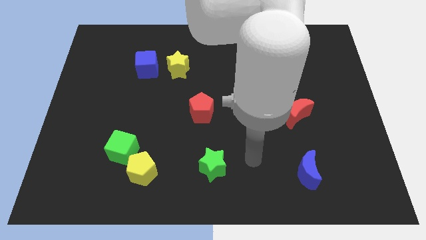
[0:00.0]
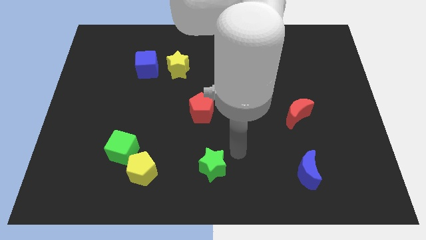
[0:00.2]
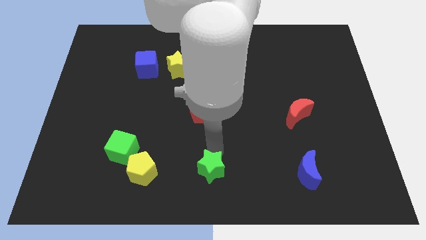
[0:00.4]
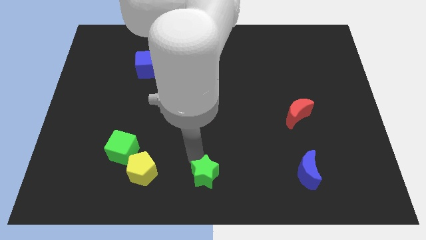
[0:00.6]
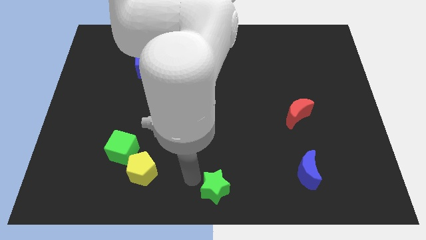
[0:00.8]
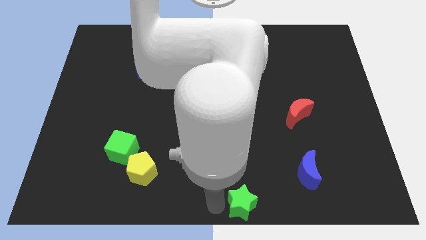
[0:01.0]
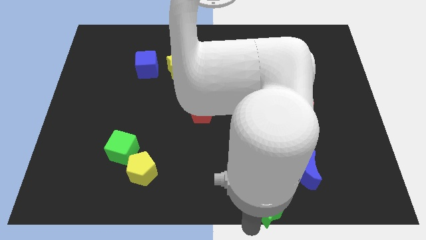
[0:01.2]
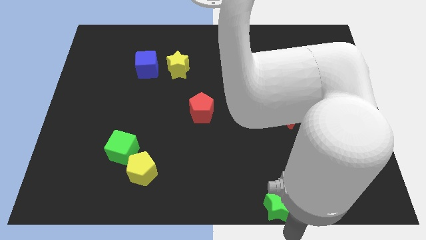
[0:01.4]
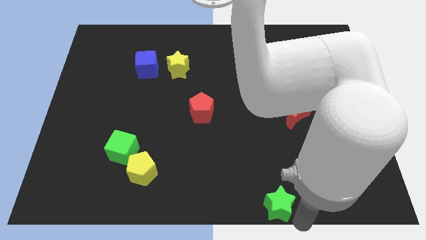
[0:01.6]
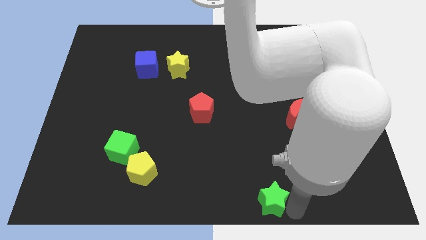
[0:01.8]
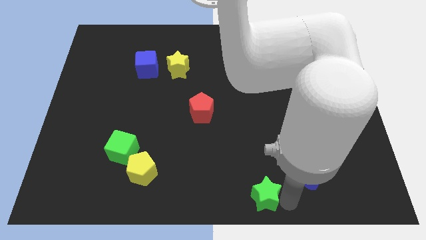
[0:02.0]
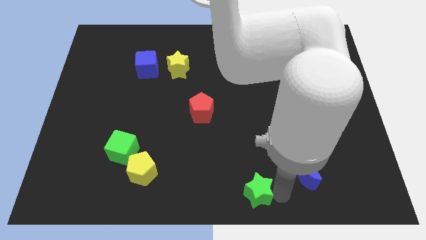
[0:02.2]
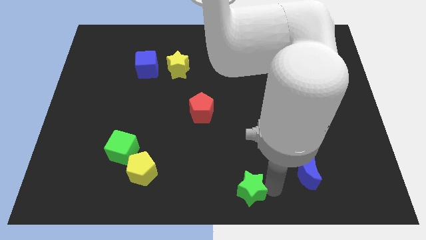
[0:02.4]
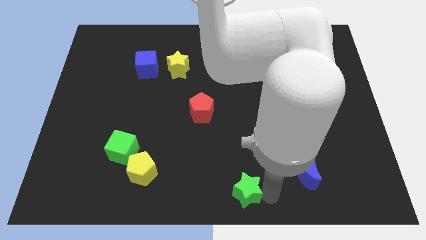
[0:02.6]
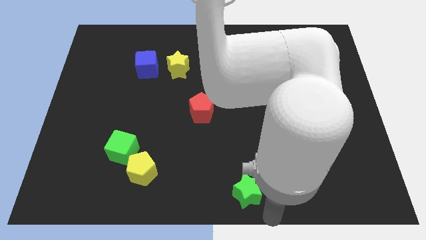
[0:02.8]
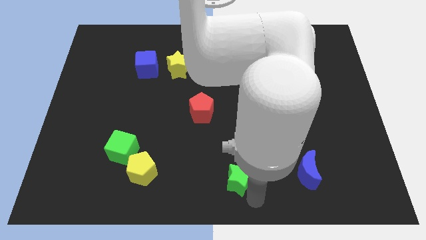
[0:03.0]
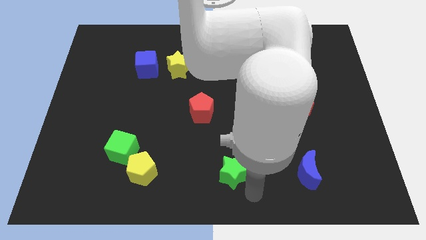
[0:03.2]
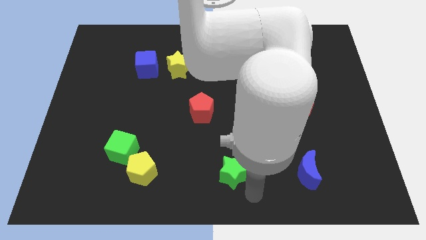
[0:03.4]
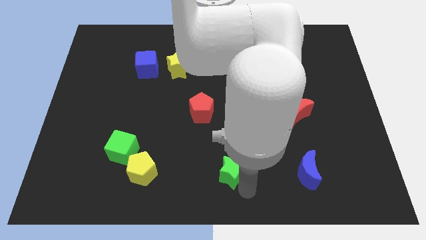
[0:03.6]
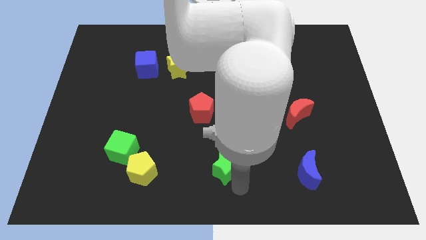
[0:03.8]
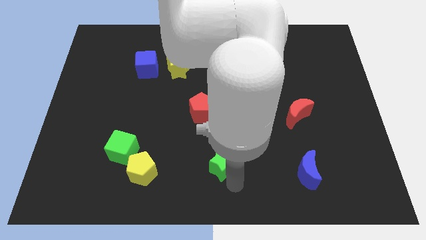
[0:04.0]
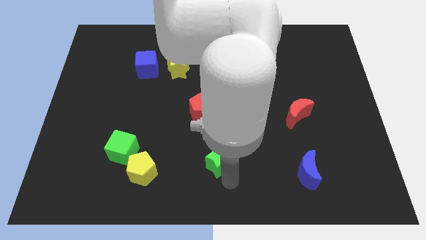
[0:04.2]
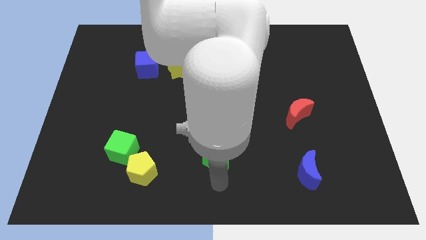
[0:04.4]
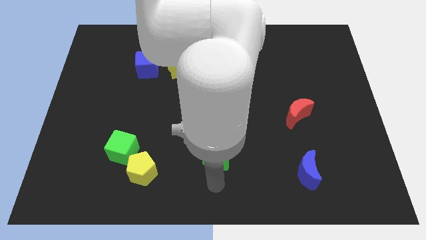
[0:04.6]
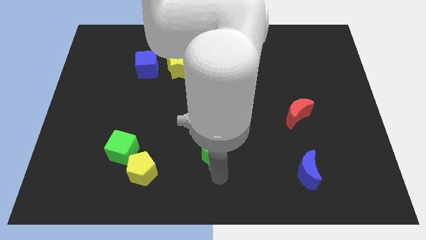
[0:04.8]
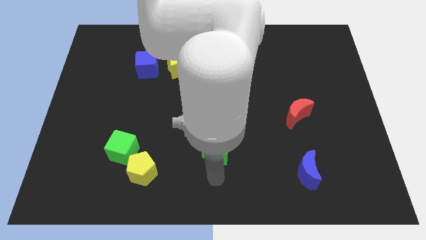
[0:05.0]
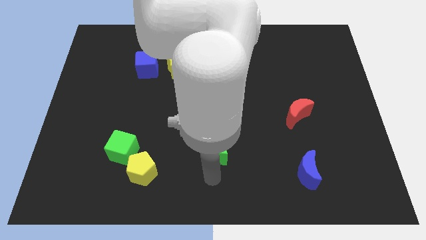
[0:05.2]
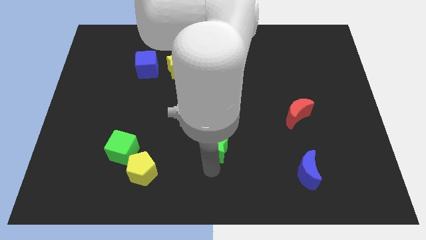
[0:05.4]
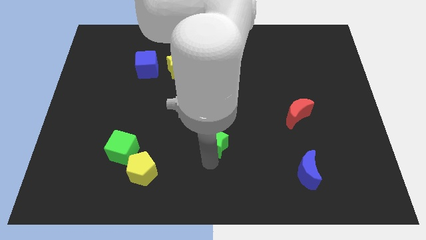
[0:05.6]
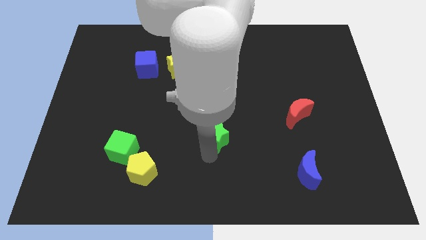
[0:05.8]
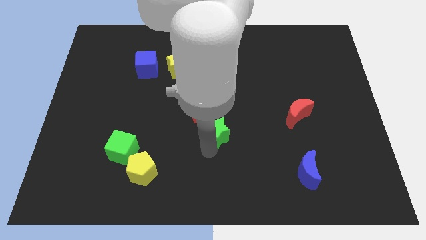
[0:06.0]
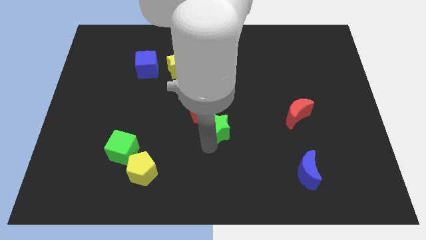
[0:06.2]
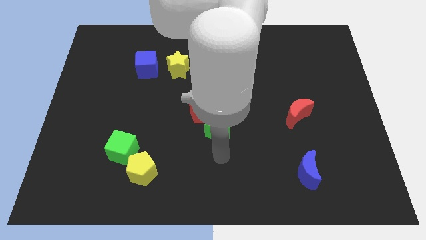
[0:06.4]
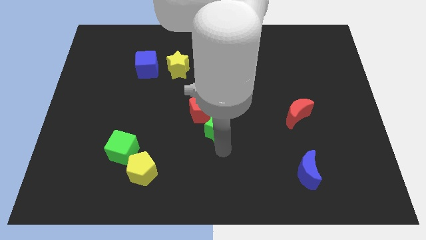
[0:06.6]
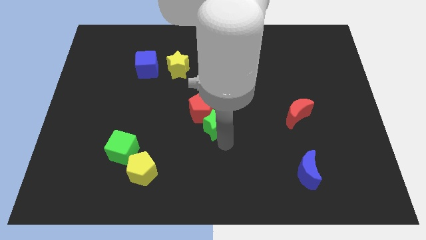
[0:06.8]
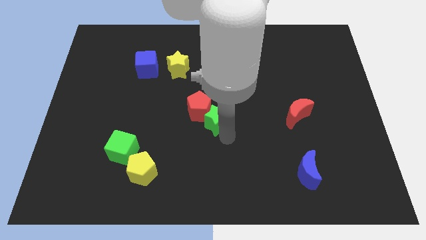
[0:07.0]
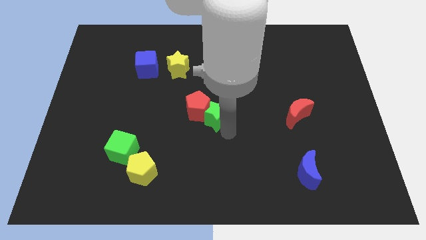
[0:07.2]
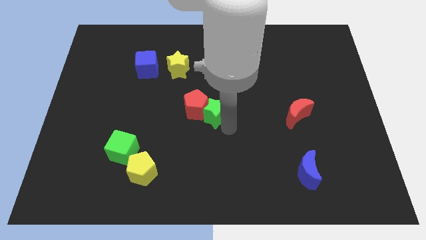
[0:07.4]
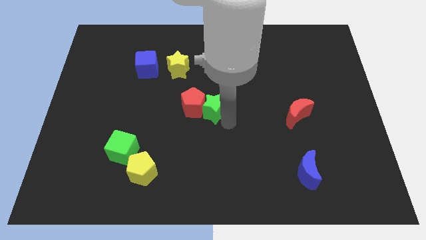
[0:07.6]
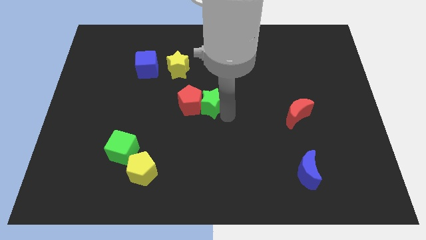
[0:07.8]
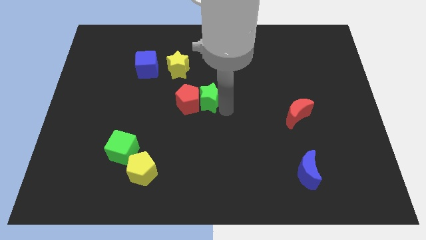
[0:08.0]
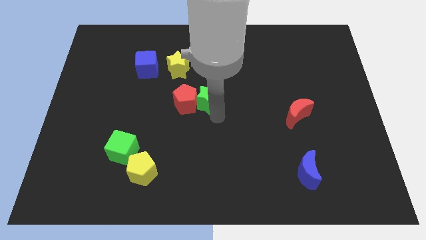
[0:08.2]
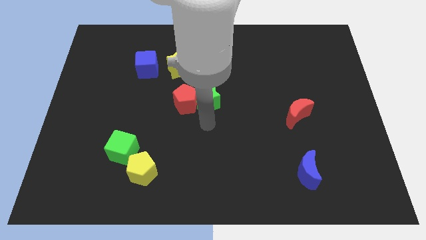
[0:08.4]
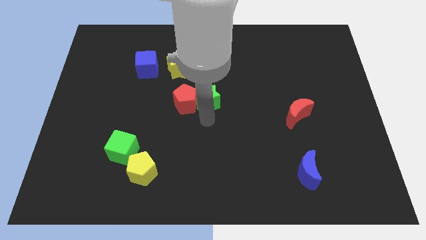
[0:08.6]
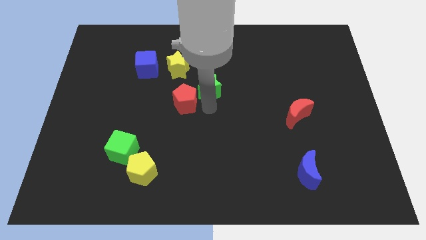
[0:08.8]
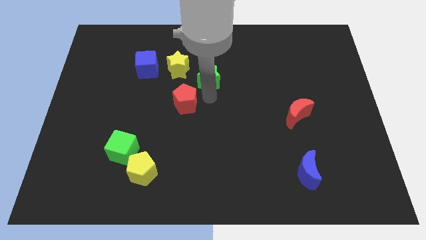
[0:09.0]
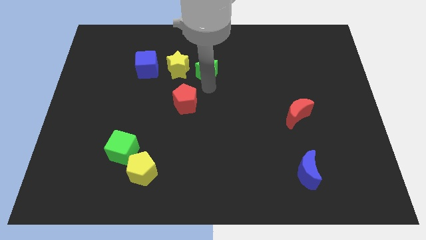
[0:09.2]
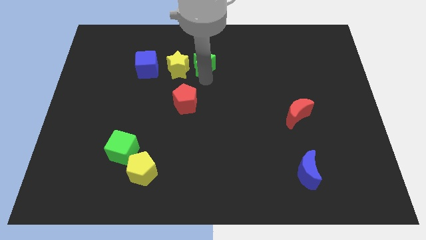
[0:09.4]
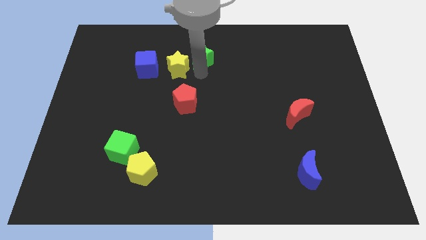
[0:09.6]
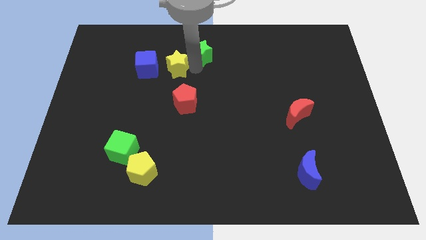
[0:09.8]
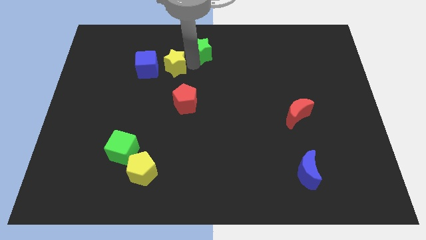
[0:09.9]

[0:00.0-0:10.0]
move the green star to the top

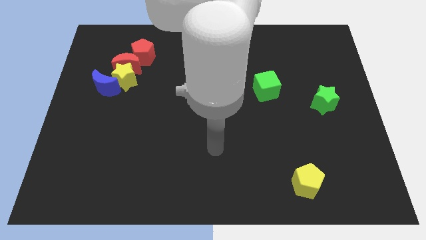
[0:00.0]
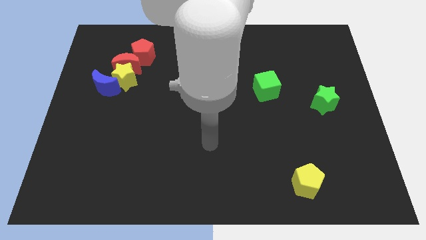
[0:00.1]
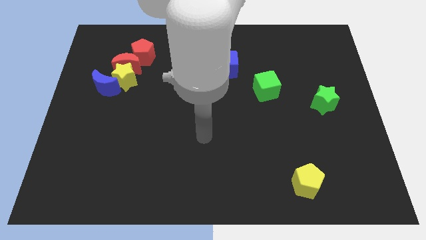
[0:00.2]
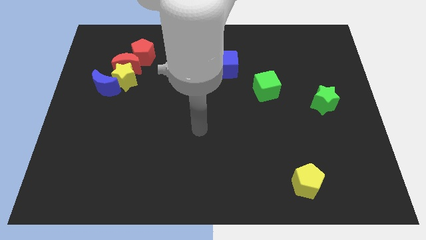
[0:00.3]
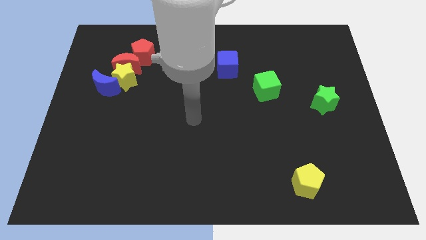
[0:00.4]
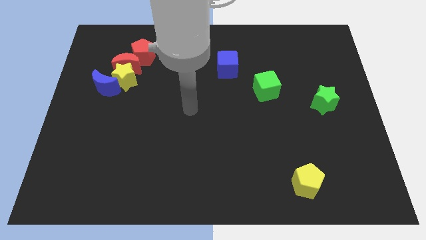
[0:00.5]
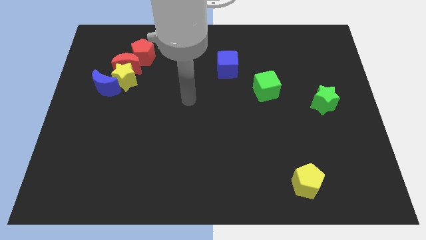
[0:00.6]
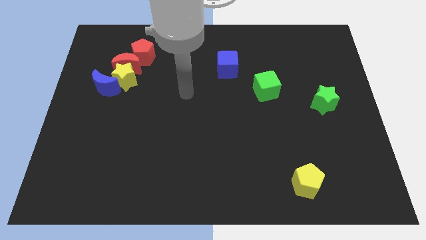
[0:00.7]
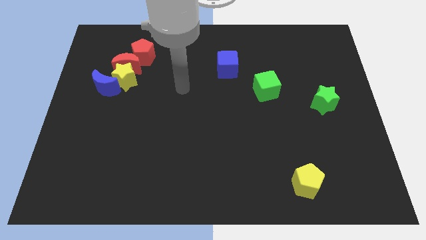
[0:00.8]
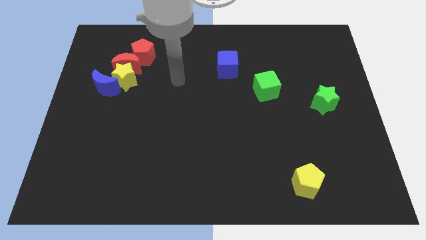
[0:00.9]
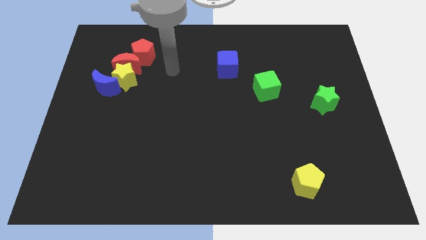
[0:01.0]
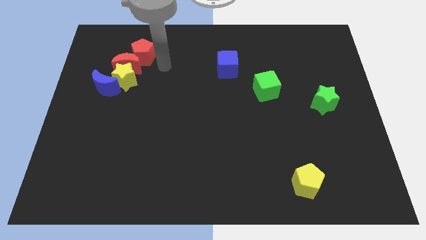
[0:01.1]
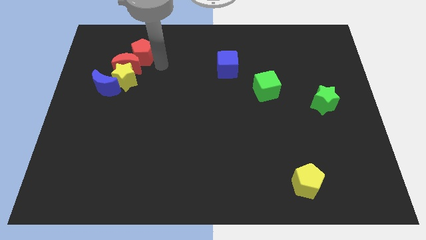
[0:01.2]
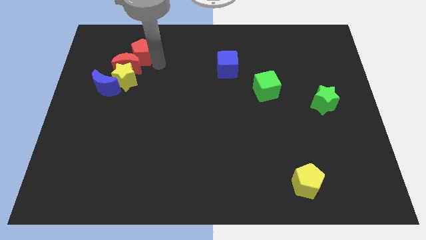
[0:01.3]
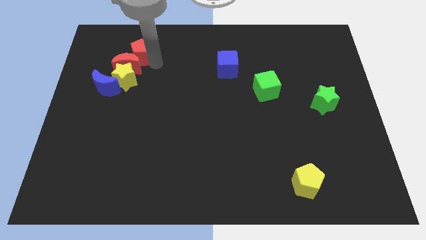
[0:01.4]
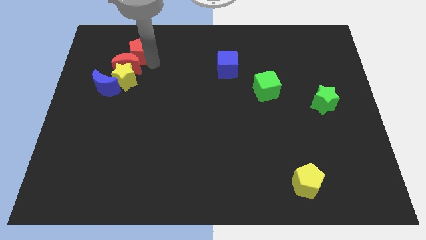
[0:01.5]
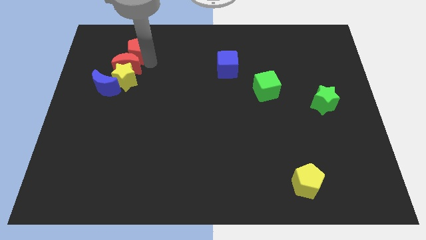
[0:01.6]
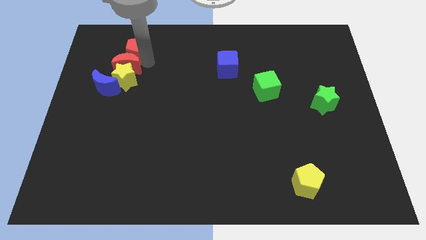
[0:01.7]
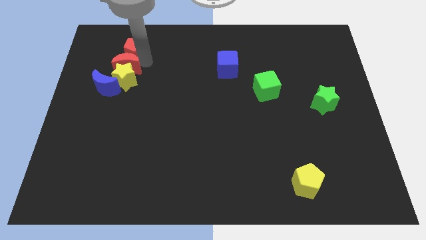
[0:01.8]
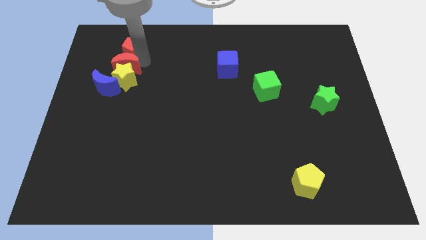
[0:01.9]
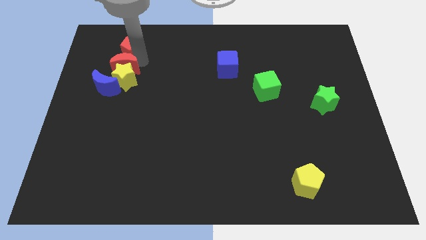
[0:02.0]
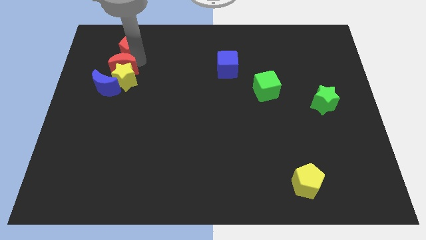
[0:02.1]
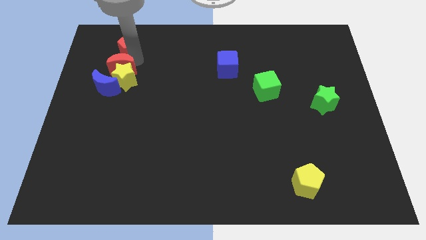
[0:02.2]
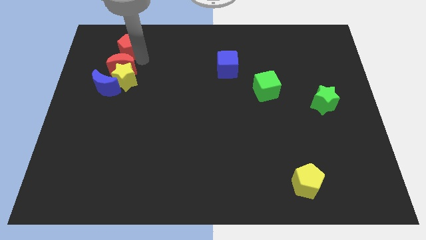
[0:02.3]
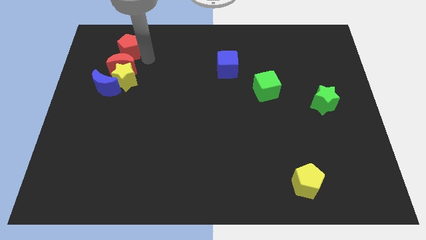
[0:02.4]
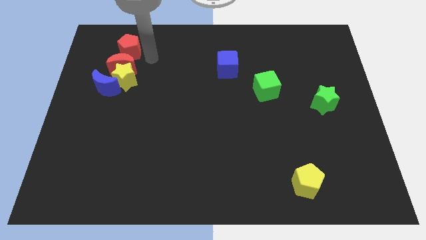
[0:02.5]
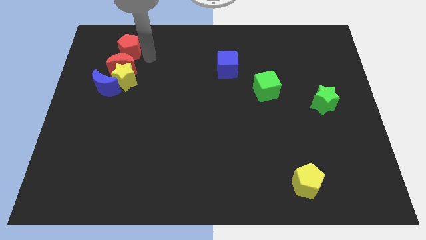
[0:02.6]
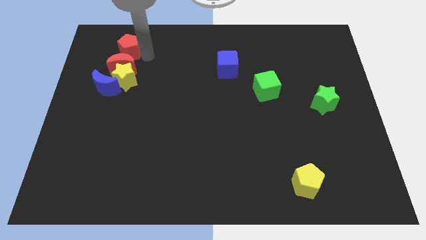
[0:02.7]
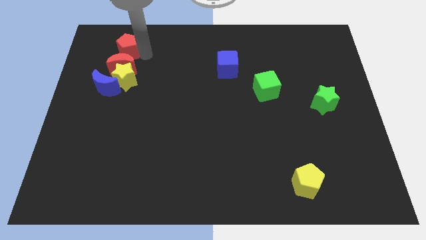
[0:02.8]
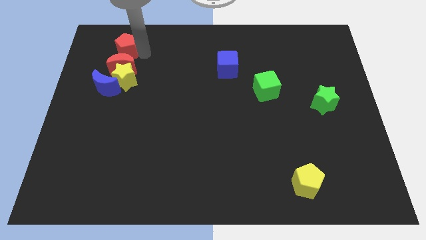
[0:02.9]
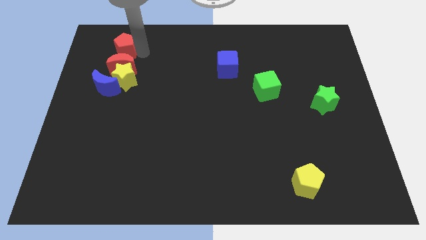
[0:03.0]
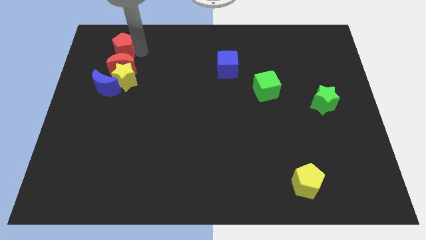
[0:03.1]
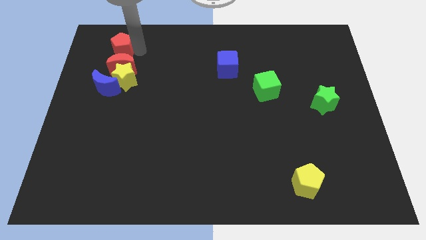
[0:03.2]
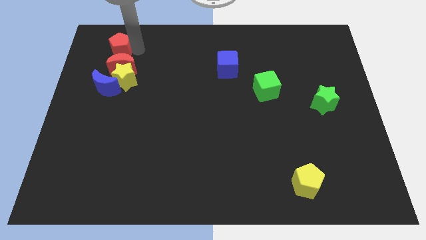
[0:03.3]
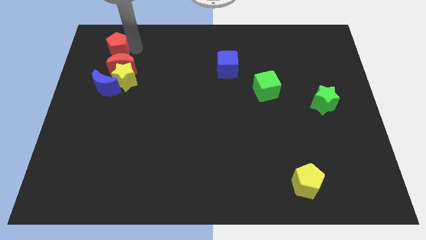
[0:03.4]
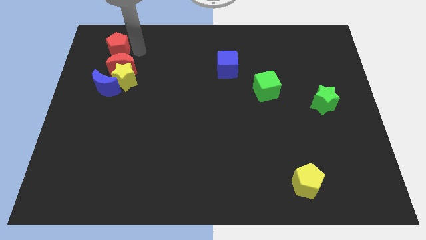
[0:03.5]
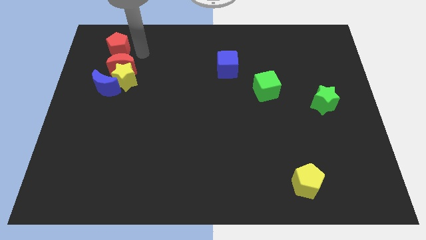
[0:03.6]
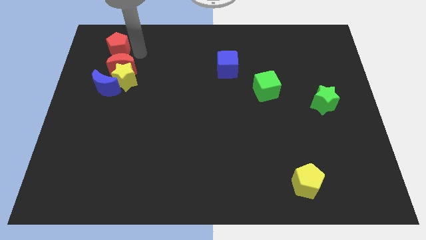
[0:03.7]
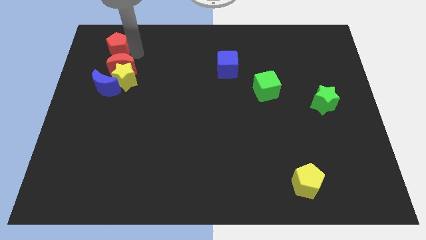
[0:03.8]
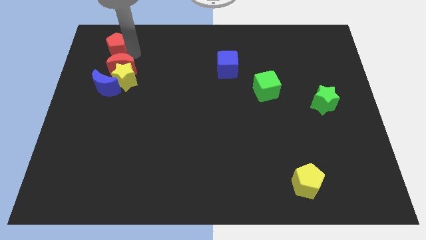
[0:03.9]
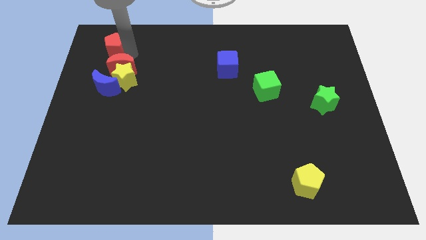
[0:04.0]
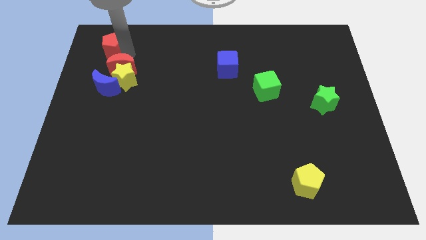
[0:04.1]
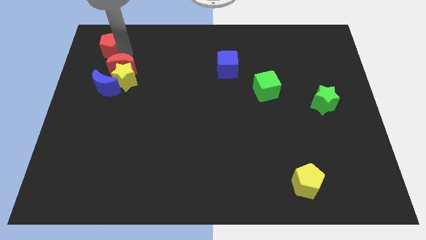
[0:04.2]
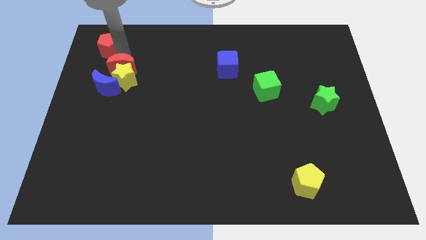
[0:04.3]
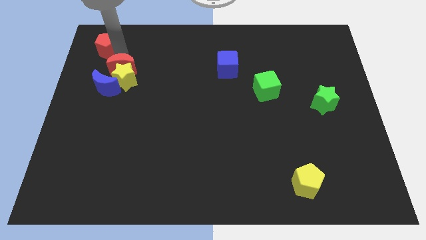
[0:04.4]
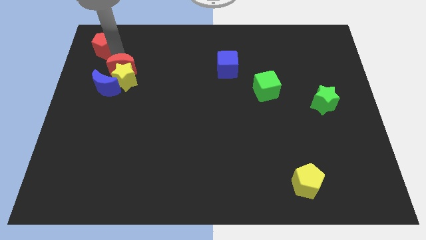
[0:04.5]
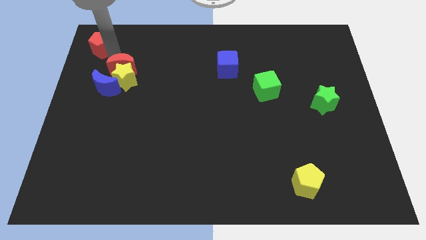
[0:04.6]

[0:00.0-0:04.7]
put the red pentagon to the top left corner
